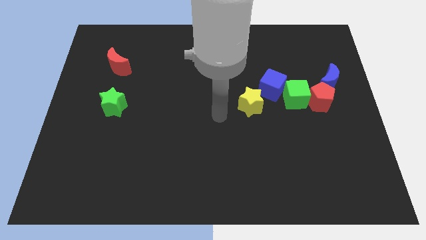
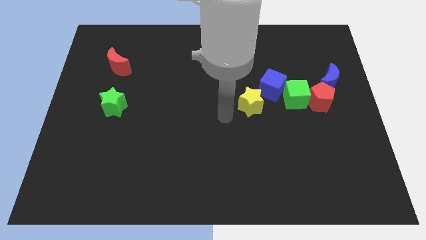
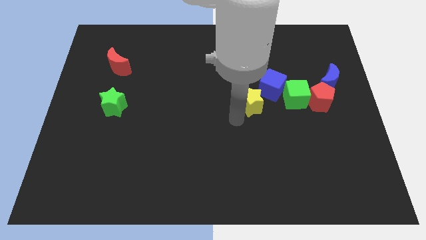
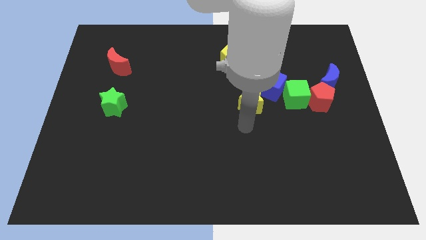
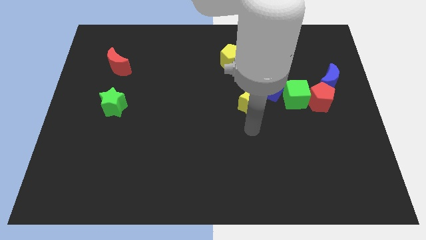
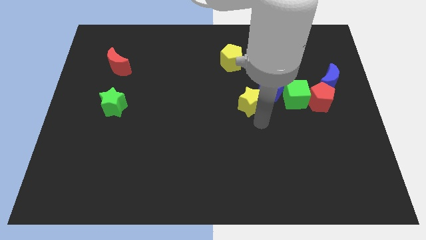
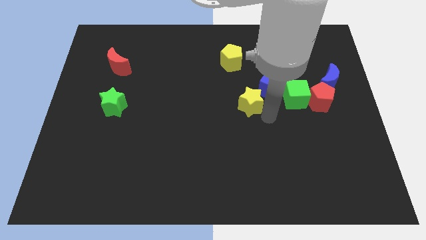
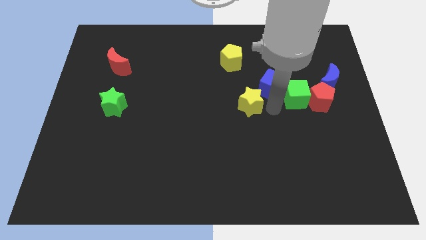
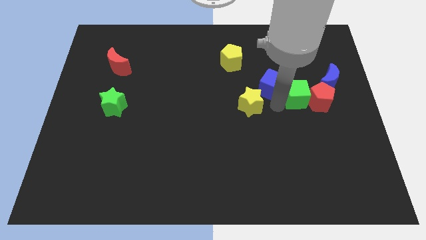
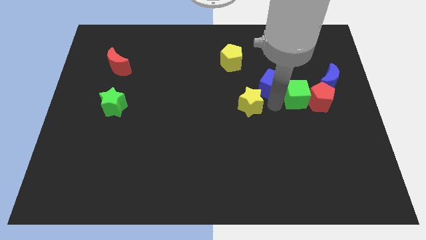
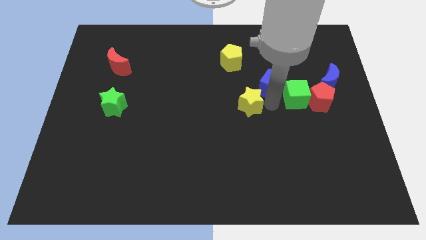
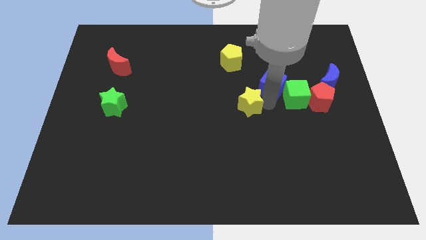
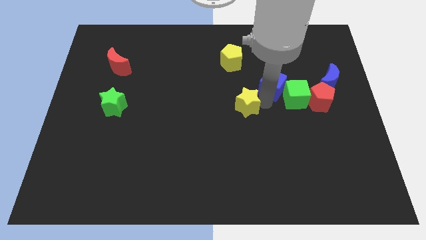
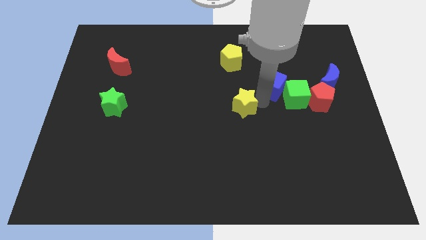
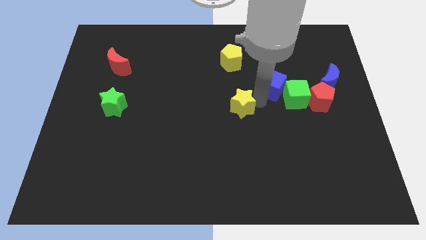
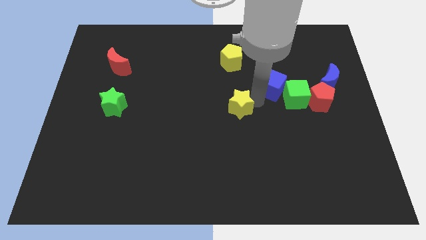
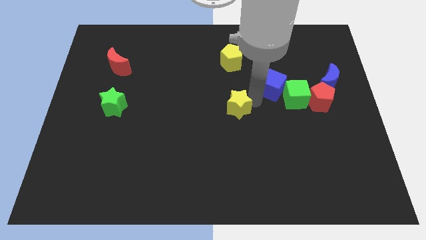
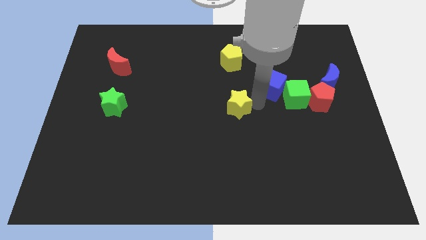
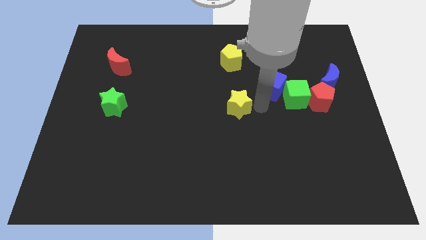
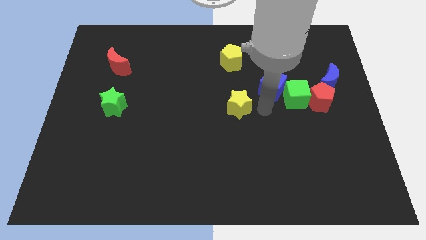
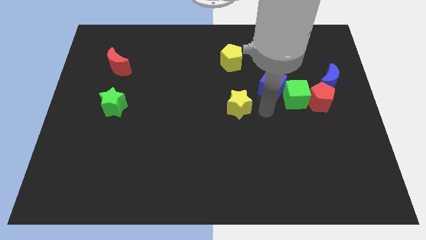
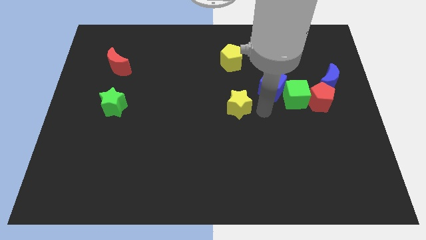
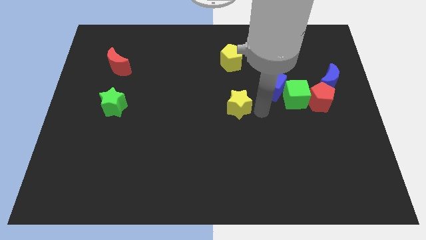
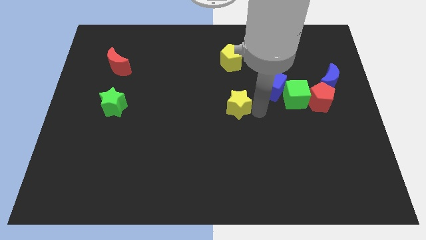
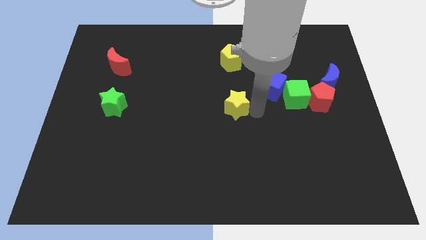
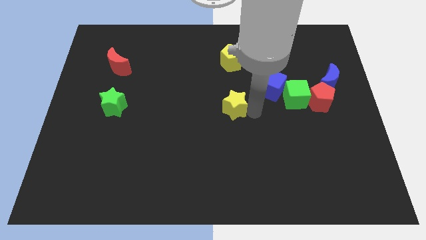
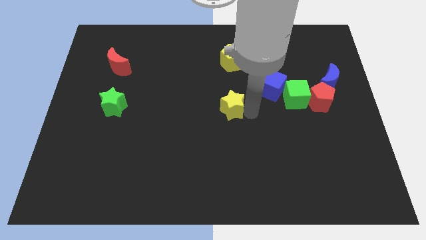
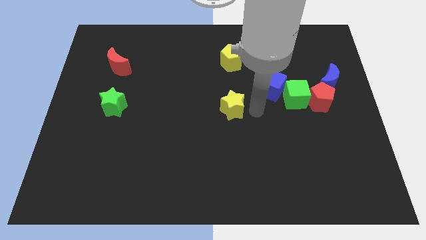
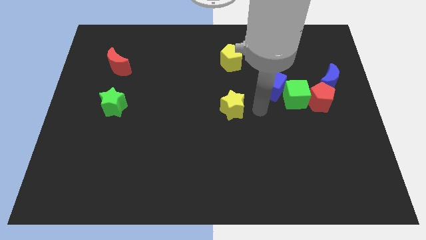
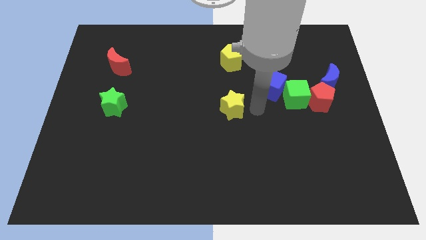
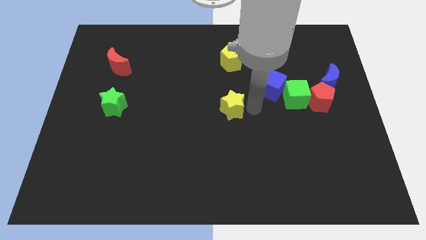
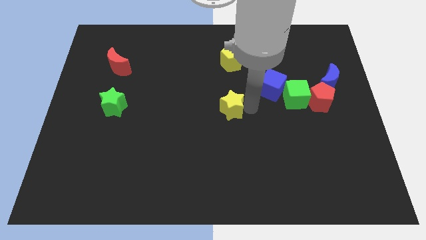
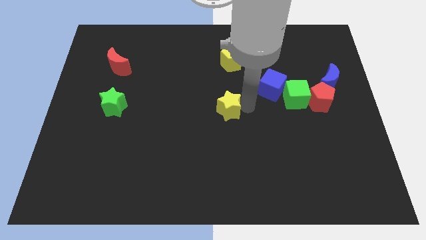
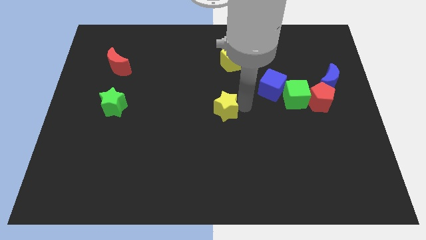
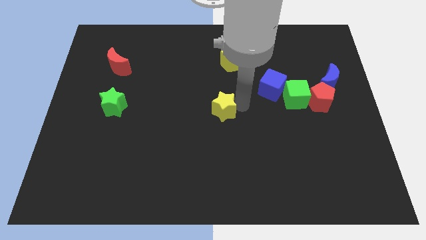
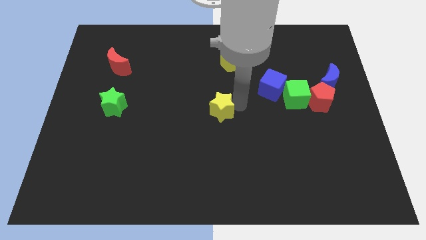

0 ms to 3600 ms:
slightly push the yellow star to the left

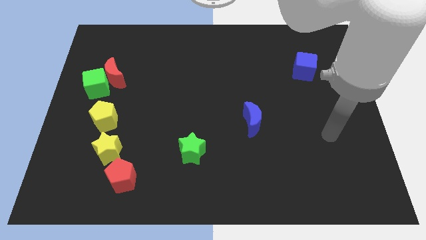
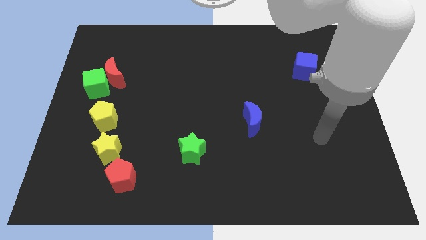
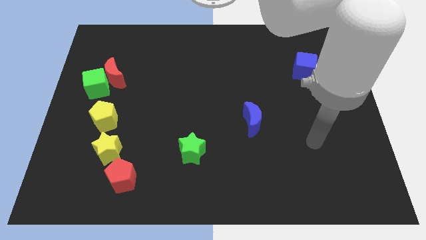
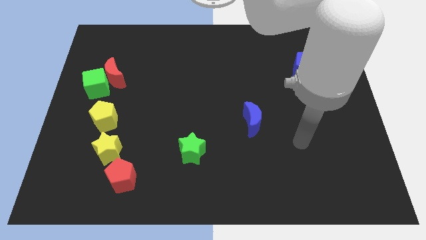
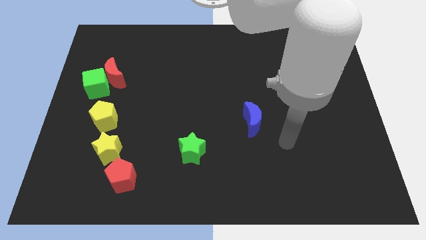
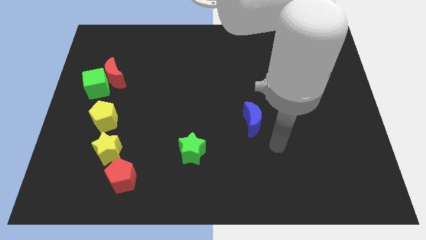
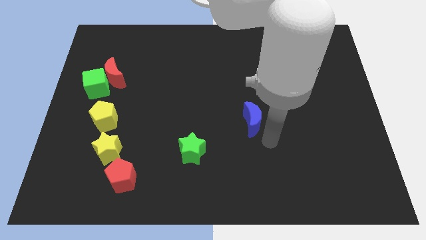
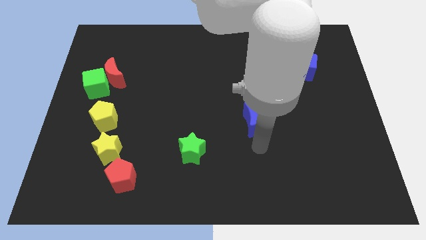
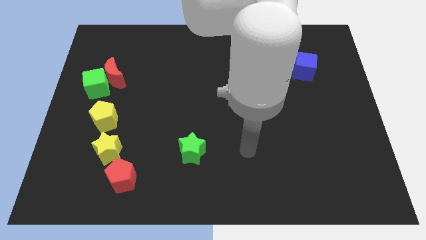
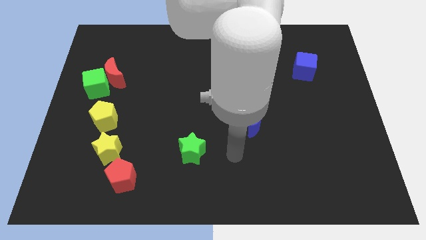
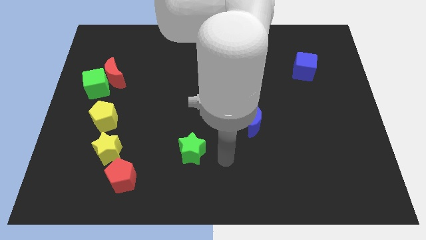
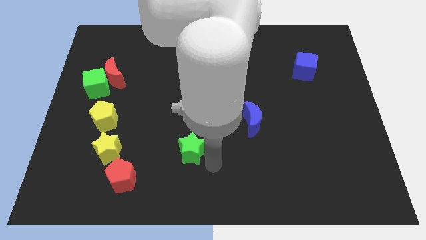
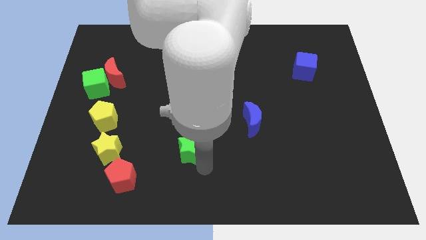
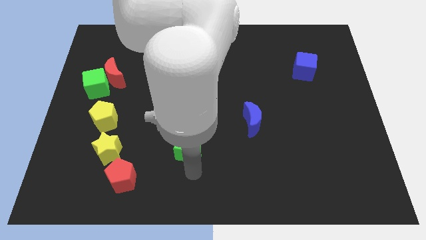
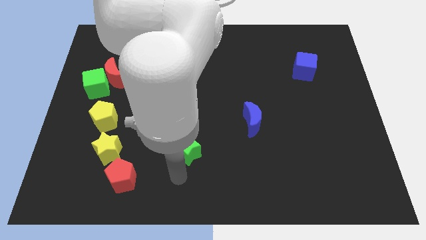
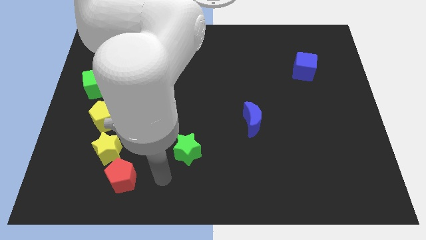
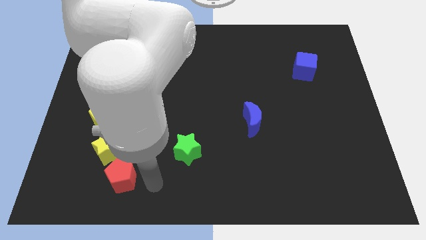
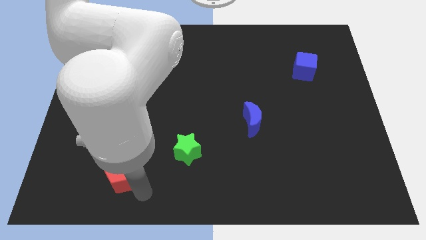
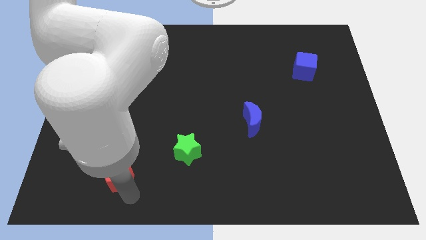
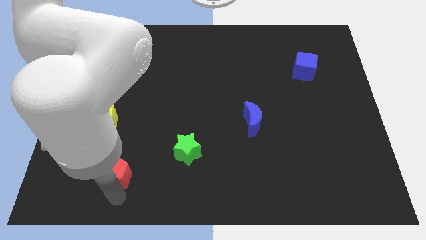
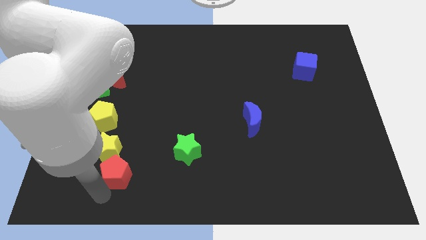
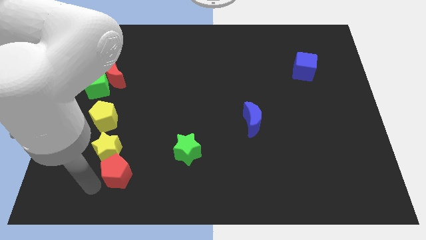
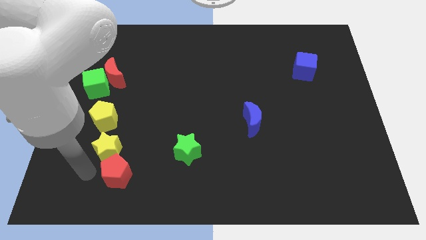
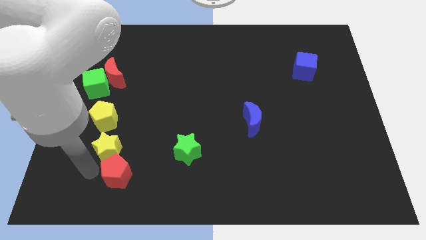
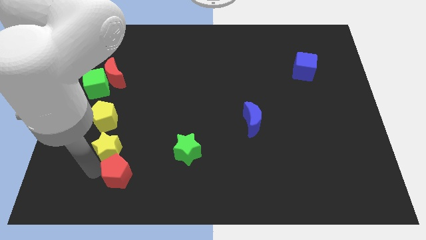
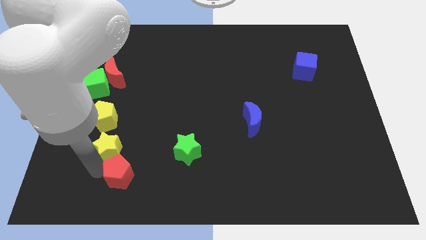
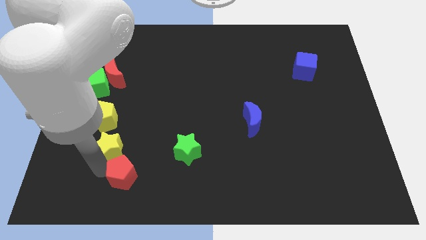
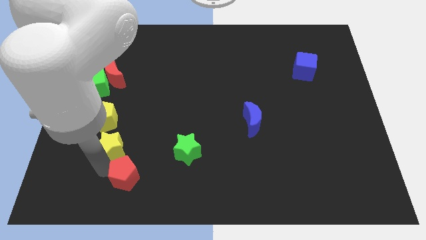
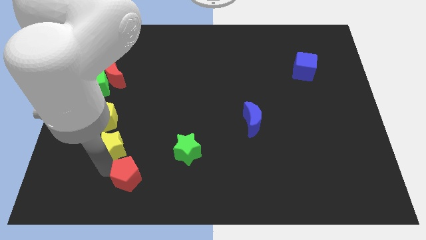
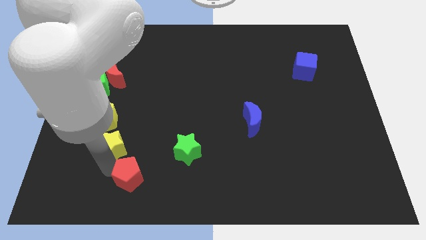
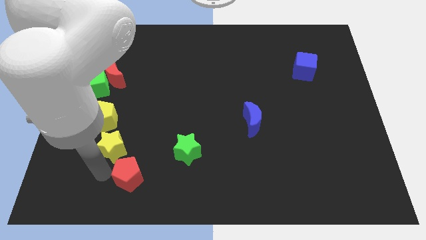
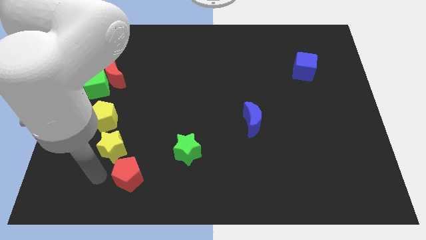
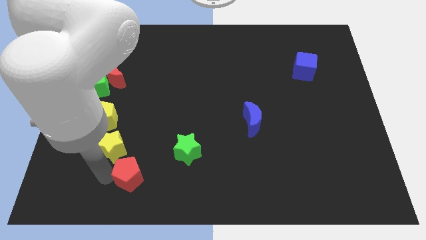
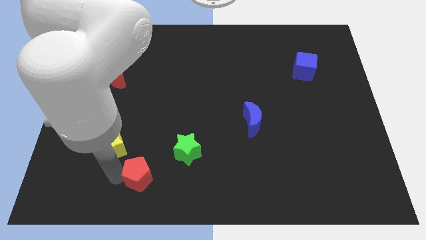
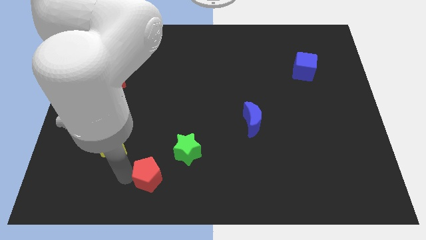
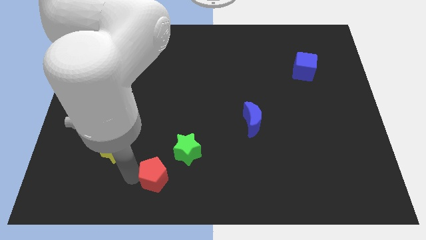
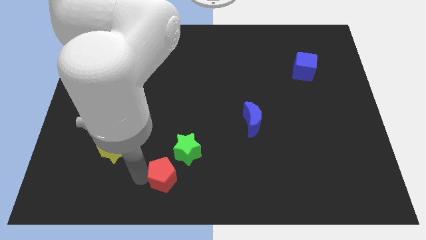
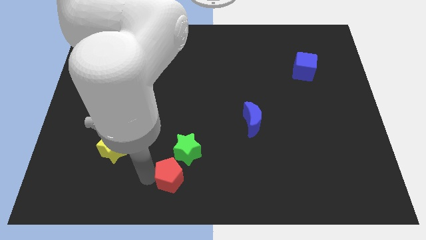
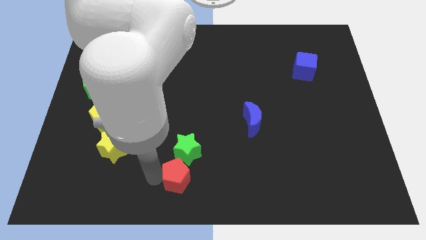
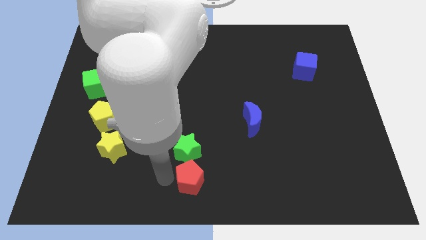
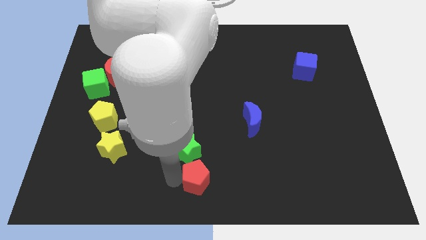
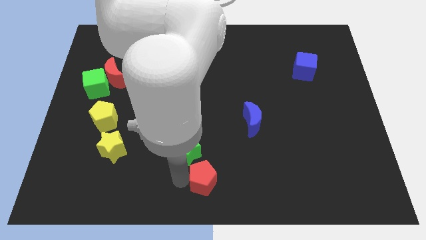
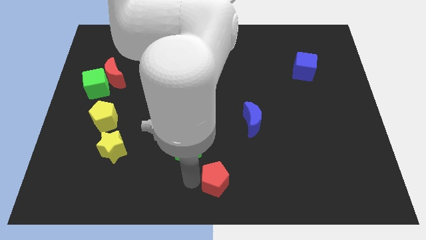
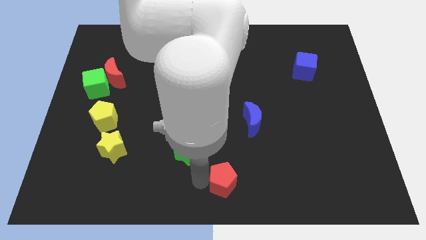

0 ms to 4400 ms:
push the red pentagon right
